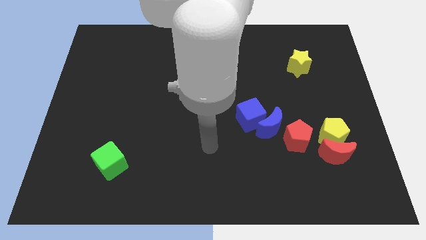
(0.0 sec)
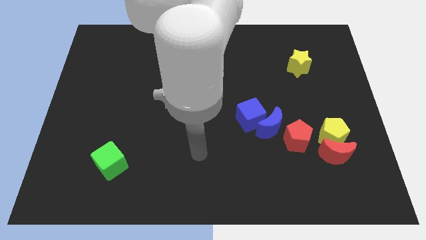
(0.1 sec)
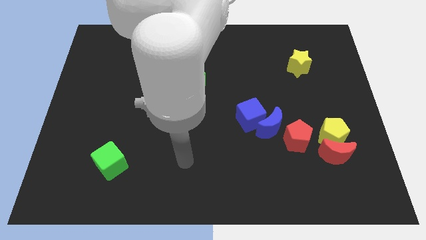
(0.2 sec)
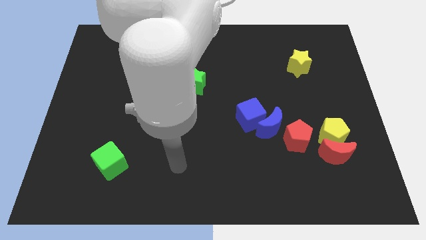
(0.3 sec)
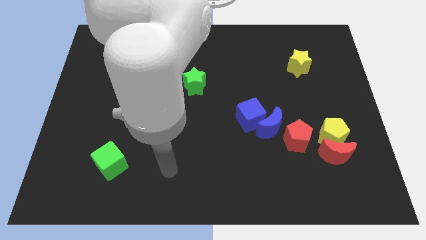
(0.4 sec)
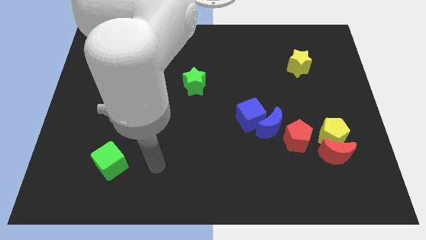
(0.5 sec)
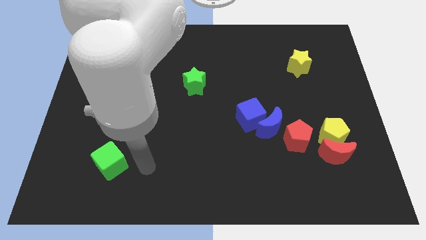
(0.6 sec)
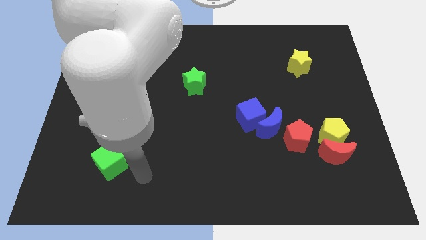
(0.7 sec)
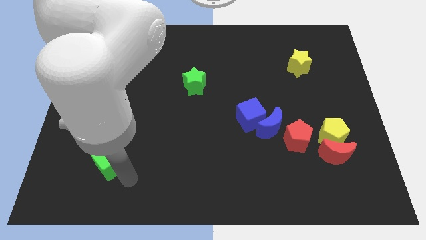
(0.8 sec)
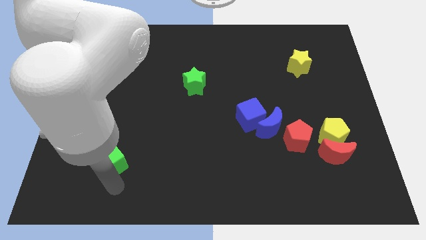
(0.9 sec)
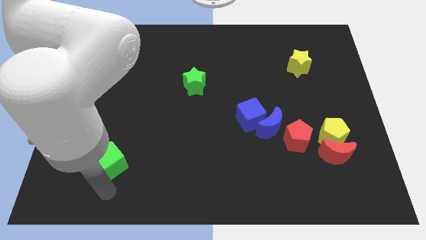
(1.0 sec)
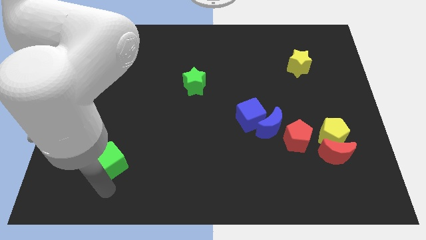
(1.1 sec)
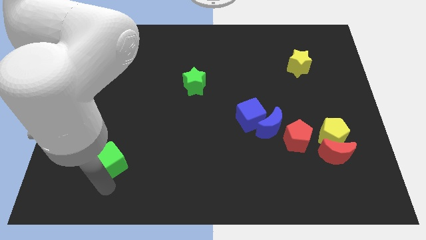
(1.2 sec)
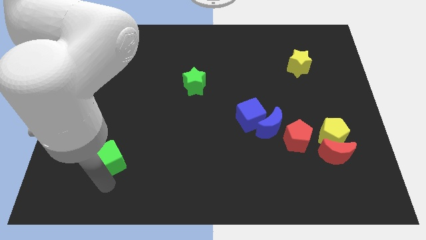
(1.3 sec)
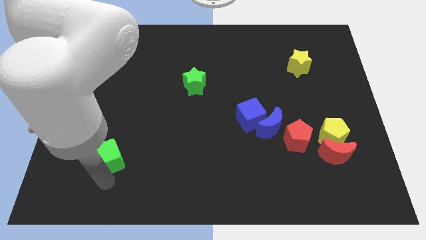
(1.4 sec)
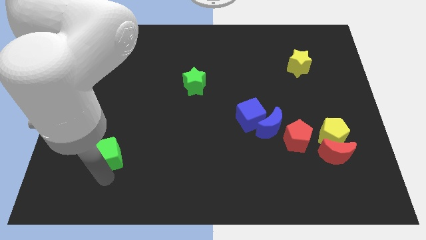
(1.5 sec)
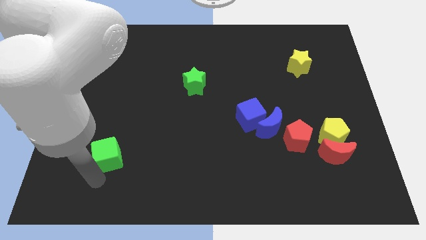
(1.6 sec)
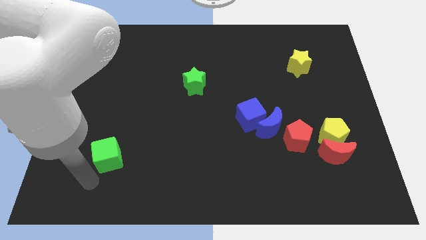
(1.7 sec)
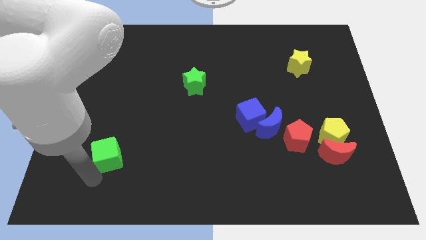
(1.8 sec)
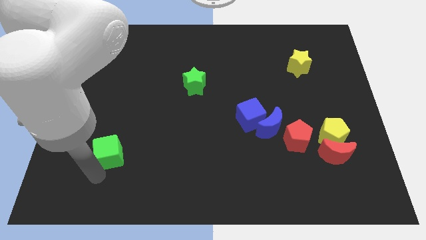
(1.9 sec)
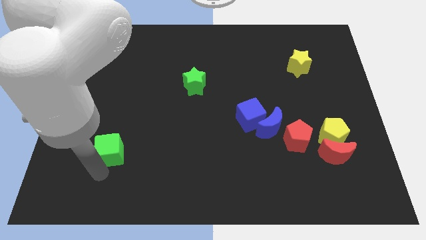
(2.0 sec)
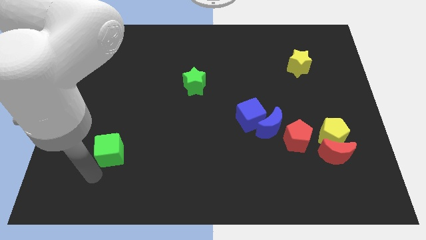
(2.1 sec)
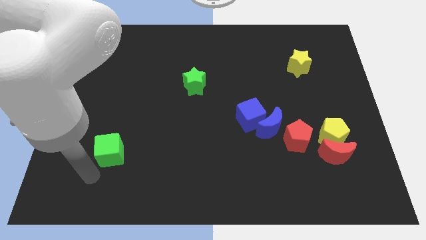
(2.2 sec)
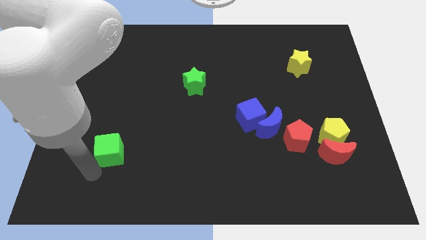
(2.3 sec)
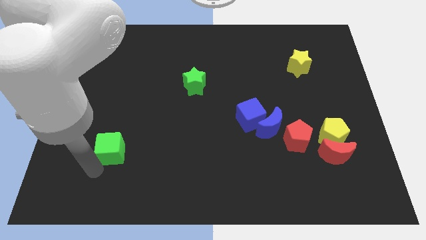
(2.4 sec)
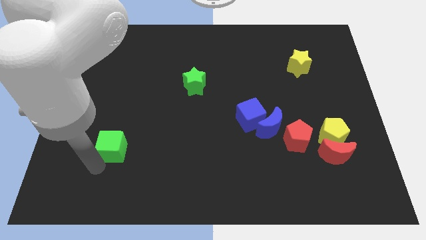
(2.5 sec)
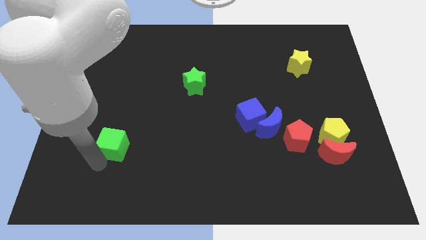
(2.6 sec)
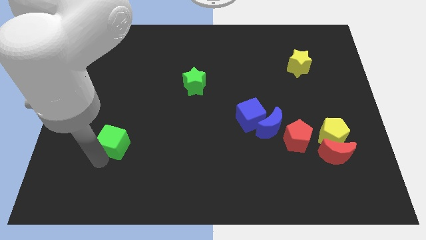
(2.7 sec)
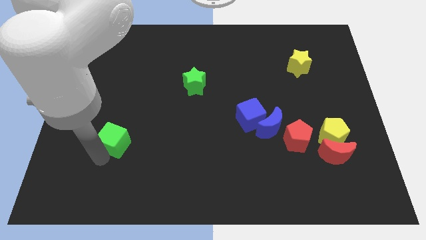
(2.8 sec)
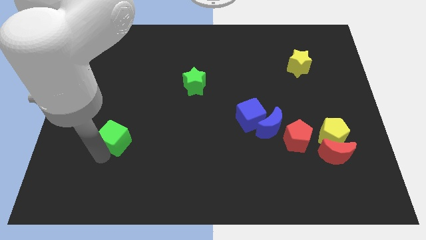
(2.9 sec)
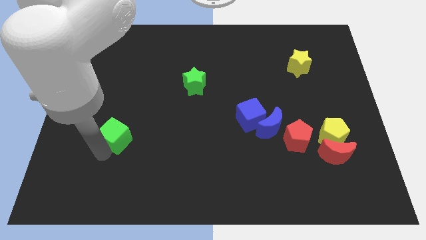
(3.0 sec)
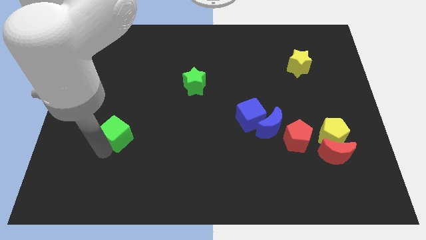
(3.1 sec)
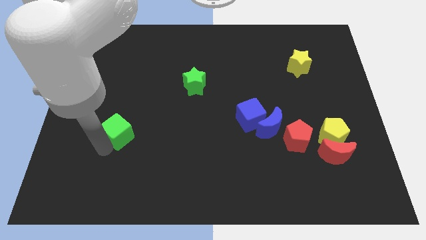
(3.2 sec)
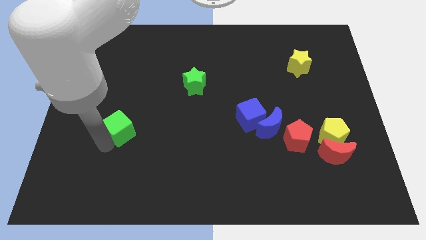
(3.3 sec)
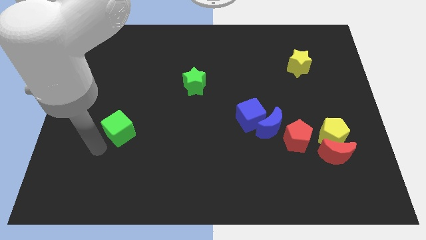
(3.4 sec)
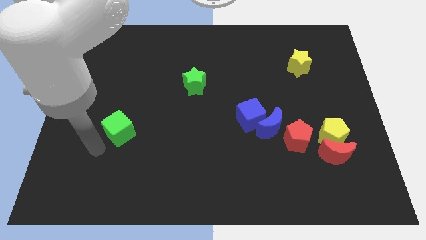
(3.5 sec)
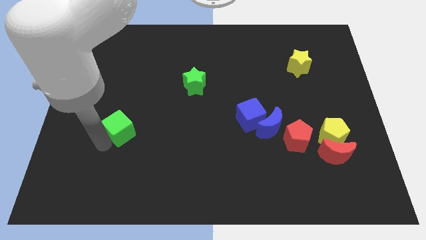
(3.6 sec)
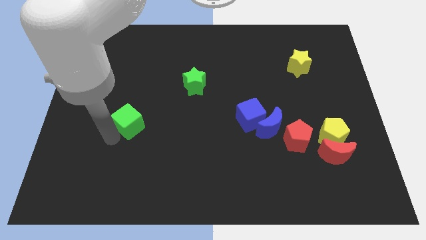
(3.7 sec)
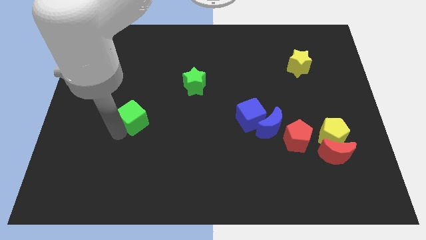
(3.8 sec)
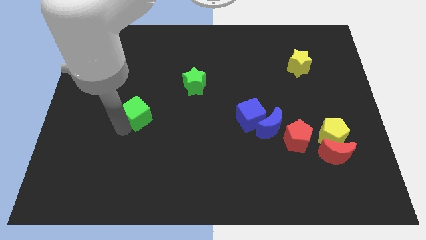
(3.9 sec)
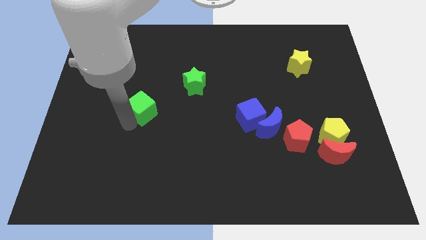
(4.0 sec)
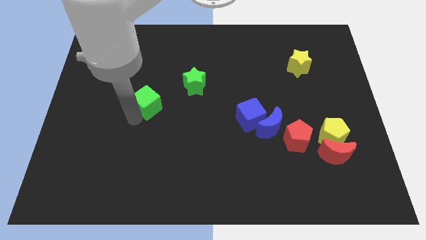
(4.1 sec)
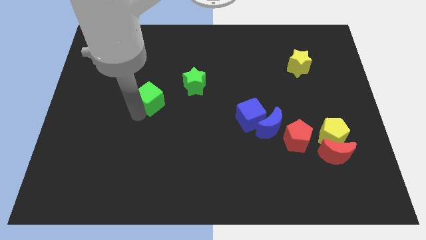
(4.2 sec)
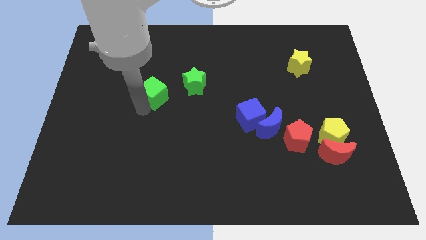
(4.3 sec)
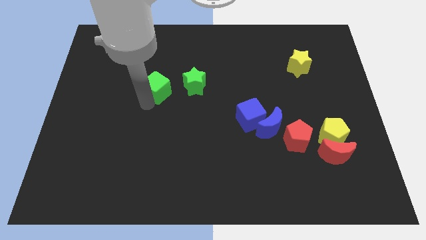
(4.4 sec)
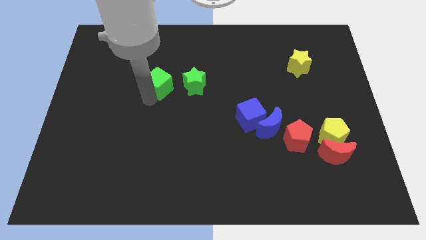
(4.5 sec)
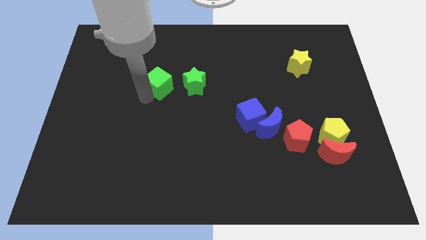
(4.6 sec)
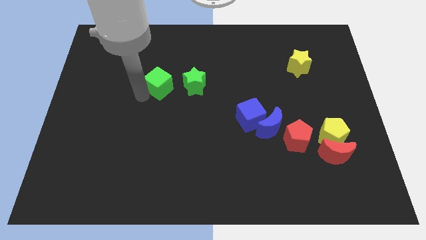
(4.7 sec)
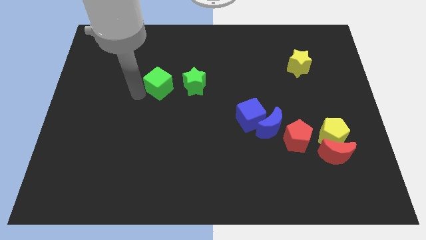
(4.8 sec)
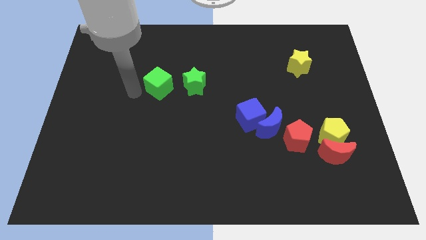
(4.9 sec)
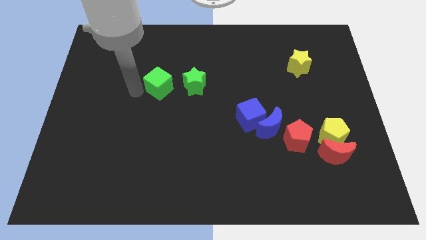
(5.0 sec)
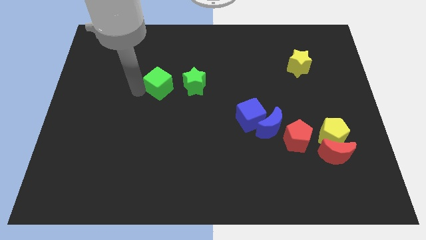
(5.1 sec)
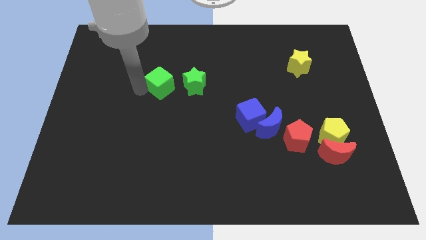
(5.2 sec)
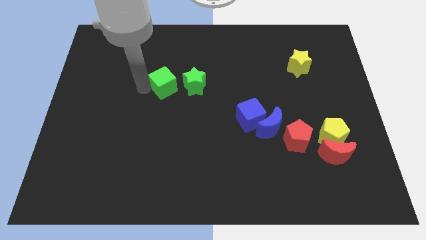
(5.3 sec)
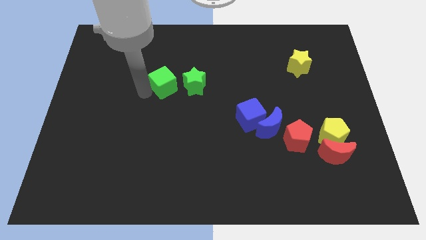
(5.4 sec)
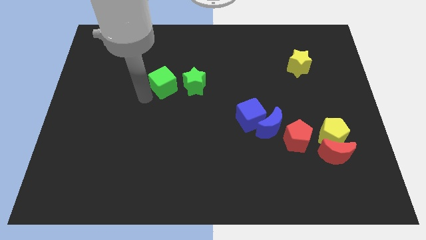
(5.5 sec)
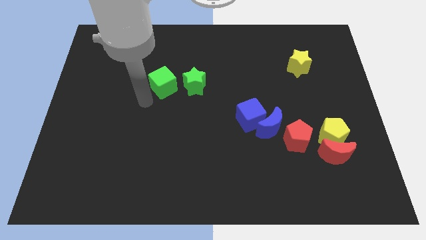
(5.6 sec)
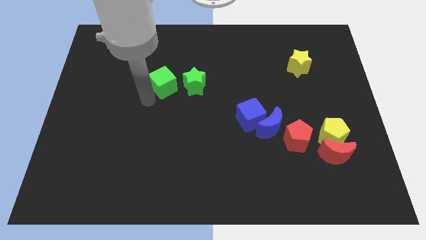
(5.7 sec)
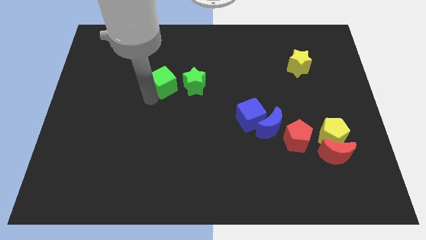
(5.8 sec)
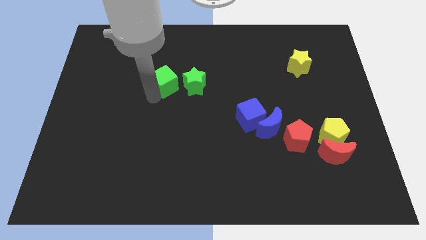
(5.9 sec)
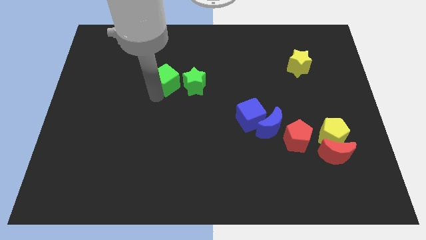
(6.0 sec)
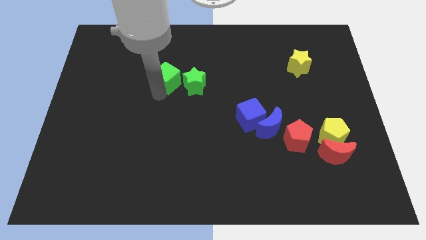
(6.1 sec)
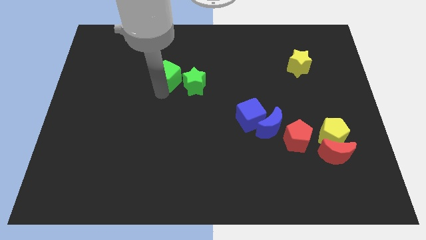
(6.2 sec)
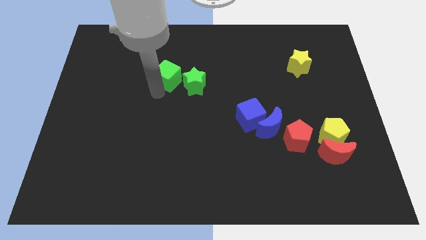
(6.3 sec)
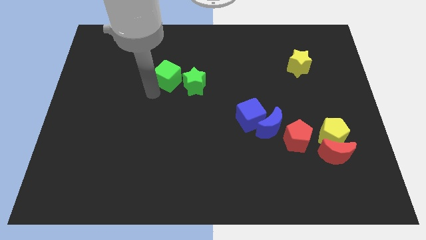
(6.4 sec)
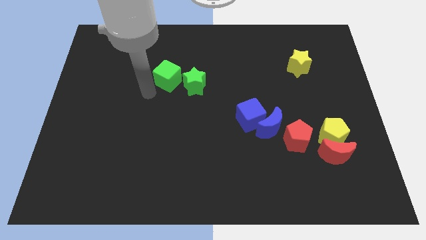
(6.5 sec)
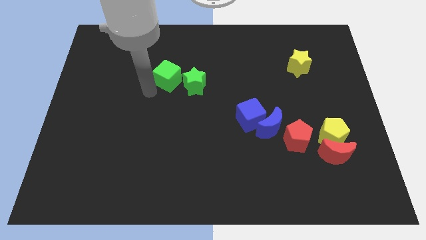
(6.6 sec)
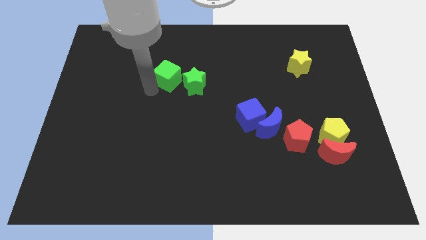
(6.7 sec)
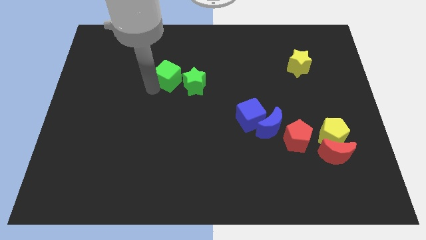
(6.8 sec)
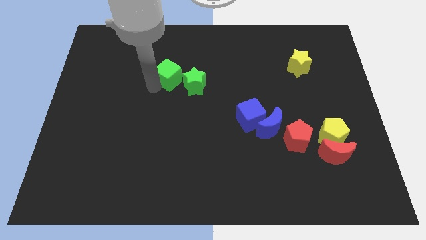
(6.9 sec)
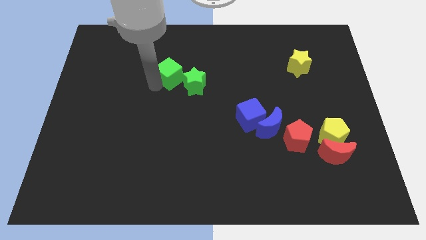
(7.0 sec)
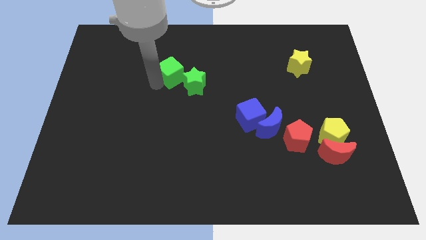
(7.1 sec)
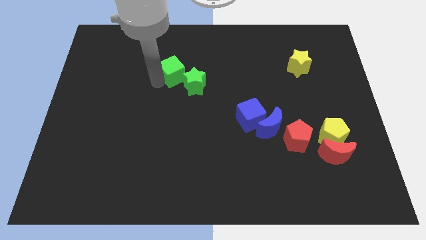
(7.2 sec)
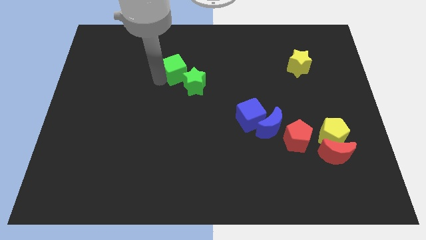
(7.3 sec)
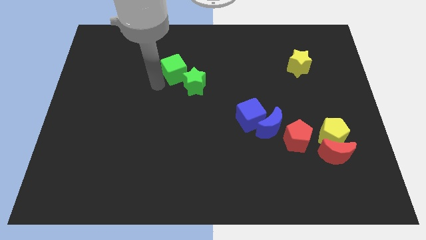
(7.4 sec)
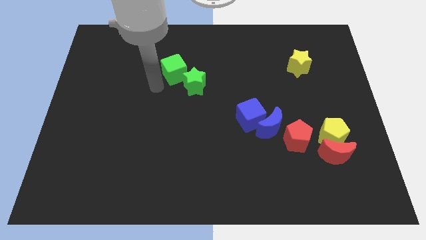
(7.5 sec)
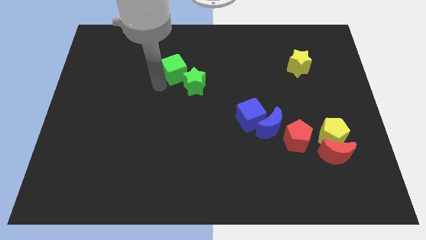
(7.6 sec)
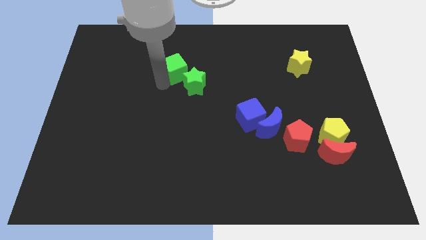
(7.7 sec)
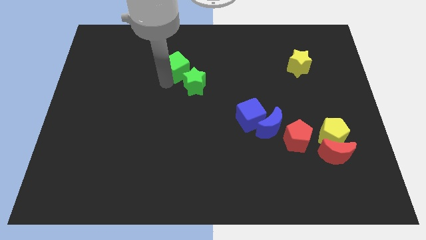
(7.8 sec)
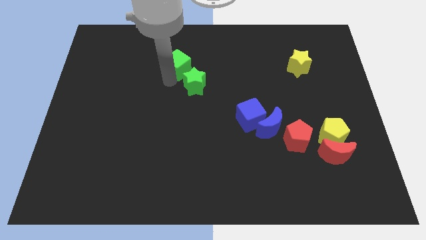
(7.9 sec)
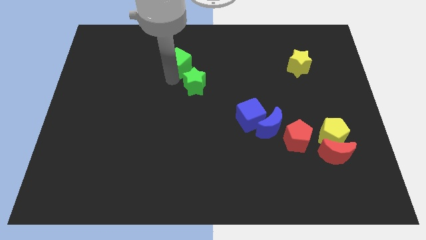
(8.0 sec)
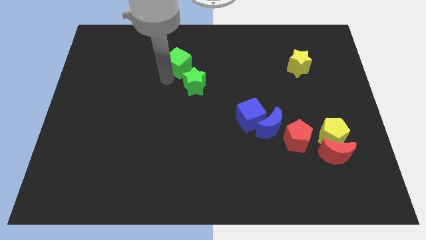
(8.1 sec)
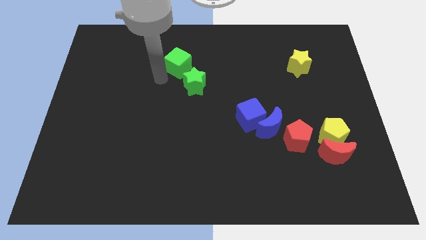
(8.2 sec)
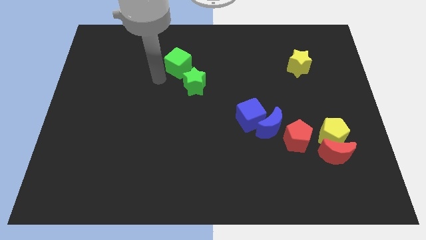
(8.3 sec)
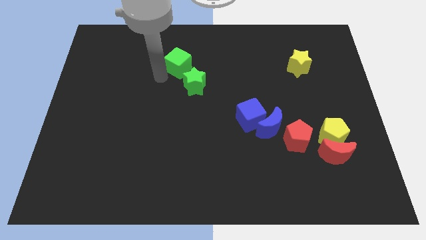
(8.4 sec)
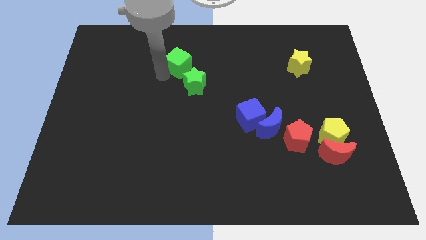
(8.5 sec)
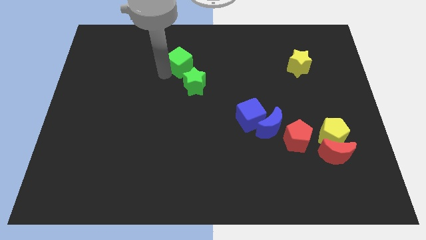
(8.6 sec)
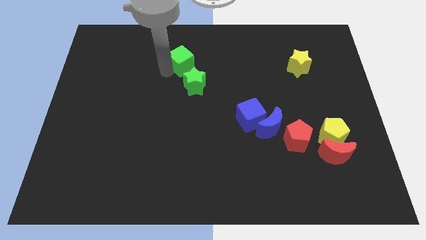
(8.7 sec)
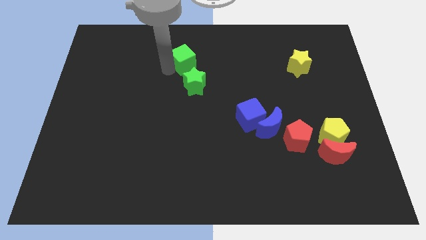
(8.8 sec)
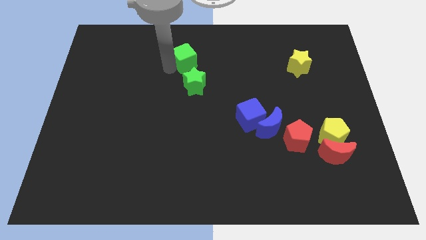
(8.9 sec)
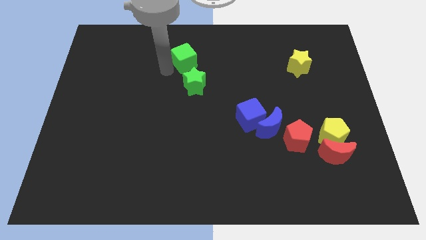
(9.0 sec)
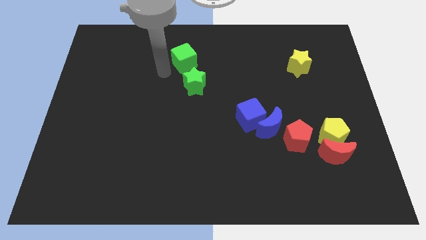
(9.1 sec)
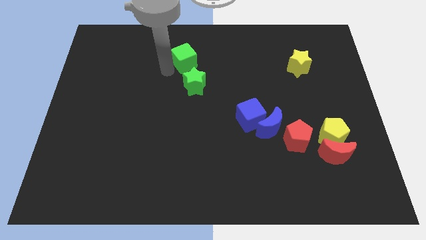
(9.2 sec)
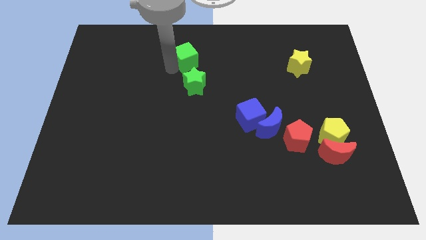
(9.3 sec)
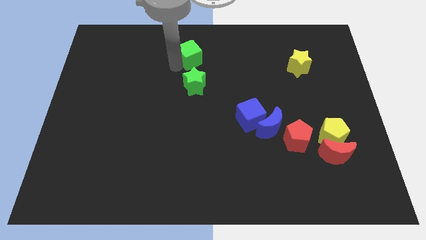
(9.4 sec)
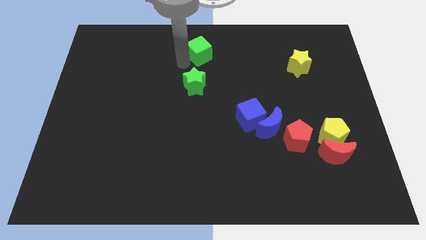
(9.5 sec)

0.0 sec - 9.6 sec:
slide the green cube to the towards your base
